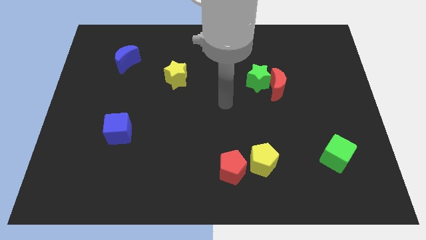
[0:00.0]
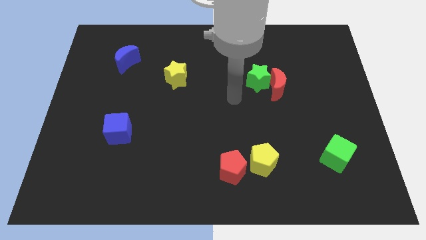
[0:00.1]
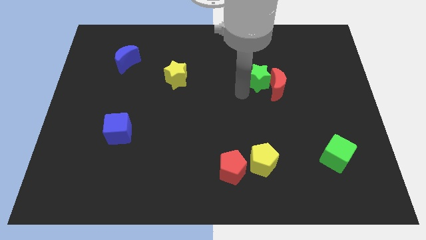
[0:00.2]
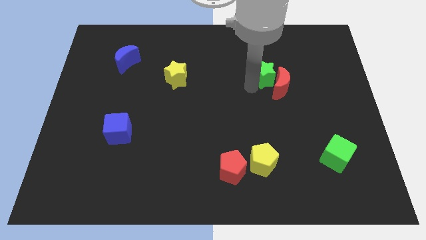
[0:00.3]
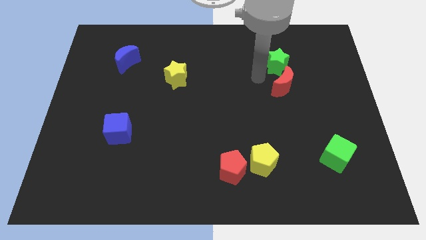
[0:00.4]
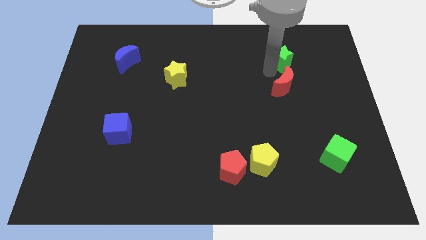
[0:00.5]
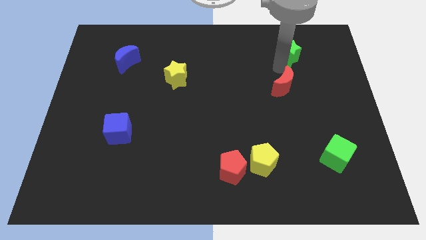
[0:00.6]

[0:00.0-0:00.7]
separate the red moon from the green star

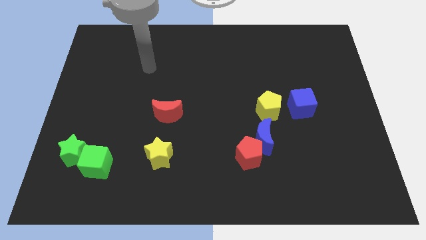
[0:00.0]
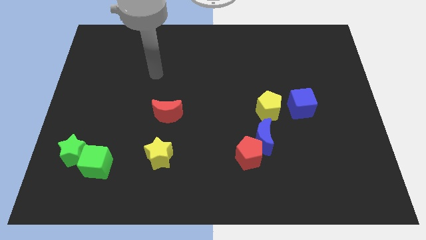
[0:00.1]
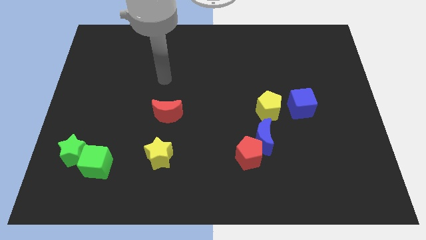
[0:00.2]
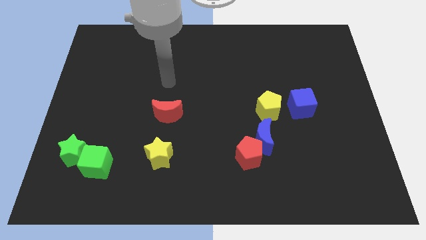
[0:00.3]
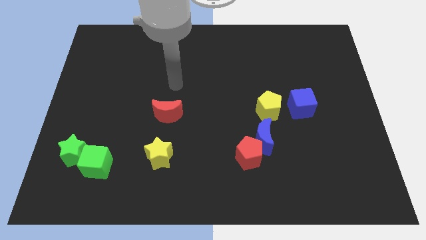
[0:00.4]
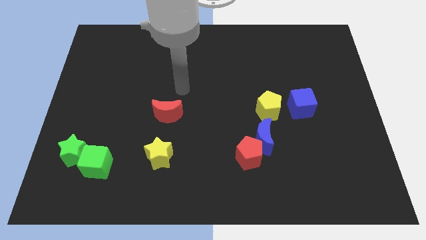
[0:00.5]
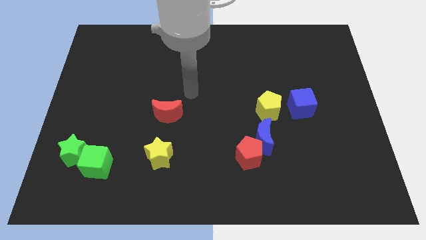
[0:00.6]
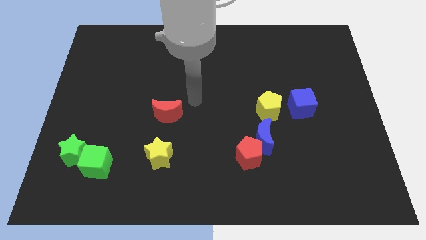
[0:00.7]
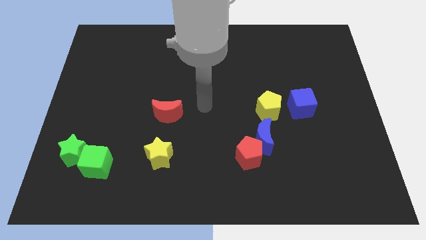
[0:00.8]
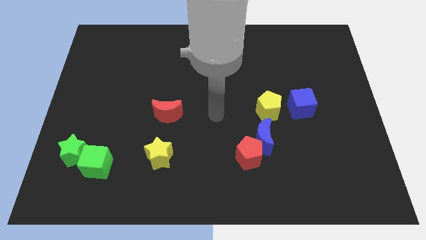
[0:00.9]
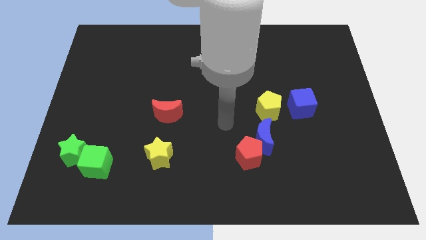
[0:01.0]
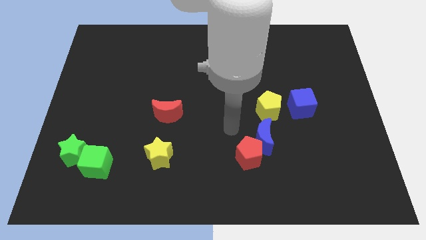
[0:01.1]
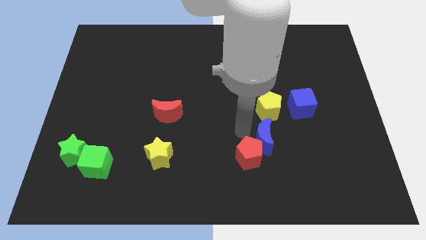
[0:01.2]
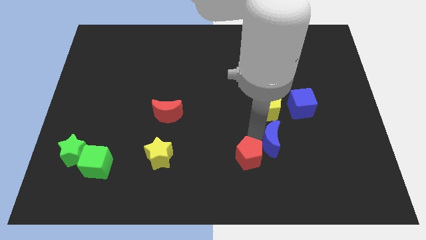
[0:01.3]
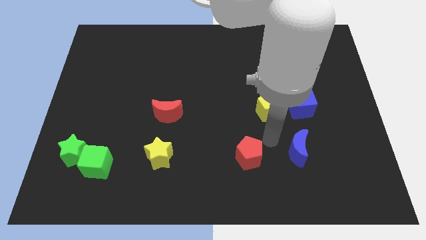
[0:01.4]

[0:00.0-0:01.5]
separate the red pentagon from the blue moon

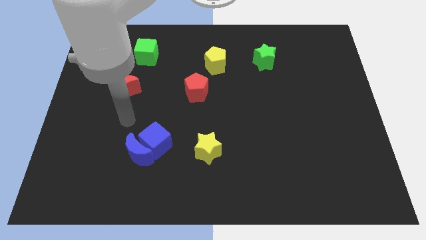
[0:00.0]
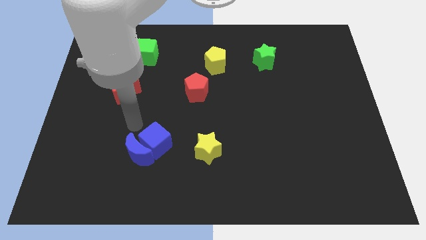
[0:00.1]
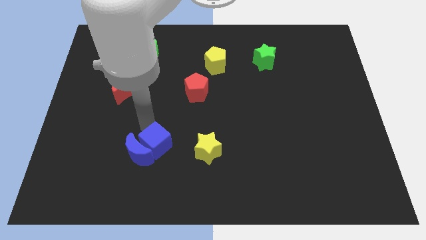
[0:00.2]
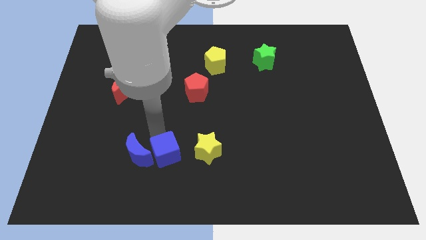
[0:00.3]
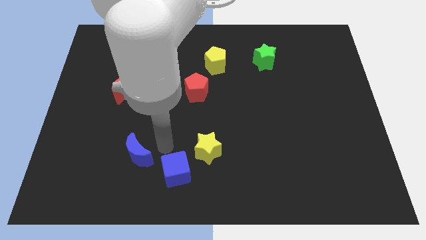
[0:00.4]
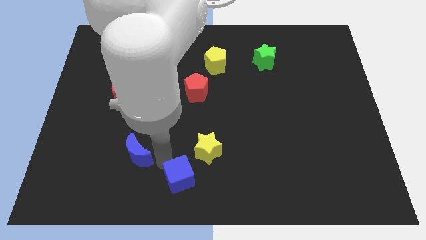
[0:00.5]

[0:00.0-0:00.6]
move the blue moon away from the blue cube

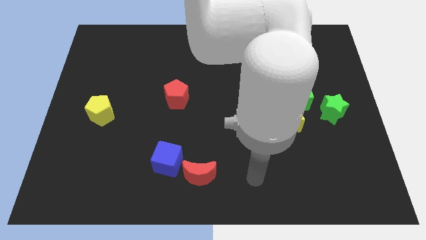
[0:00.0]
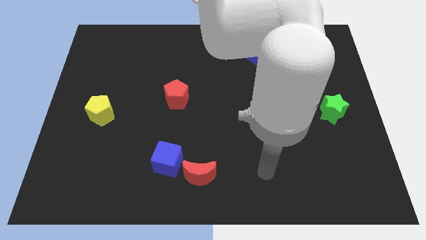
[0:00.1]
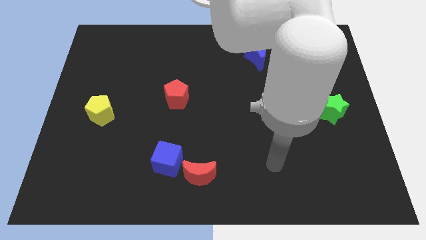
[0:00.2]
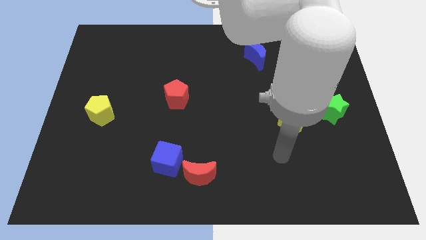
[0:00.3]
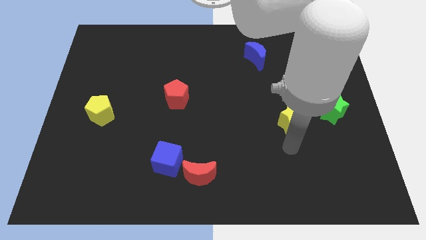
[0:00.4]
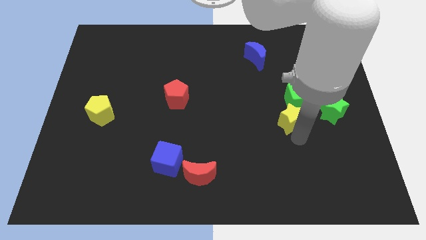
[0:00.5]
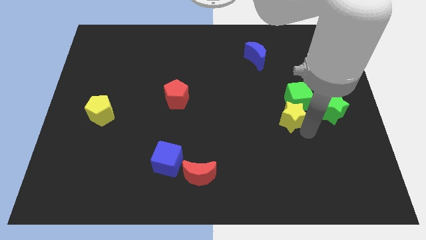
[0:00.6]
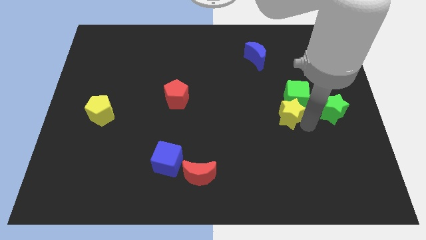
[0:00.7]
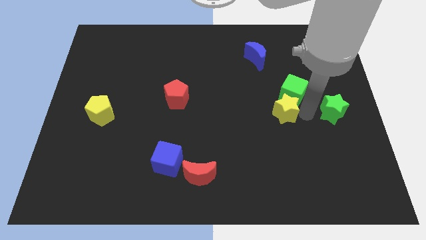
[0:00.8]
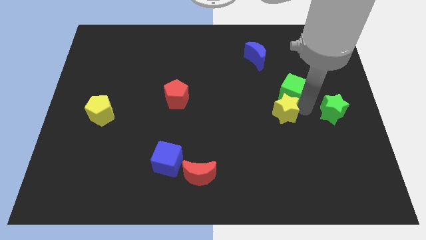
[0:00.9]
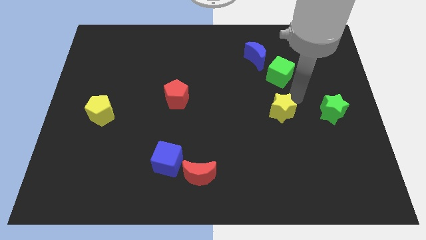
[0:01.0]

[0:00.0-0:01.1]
pull the yellow star apart from the green cube

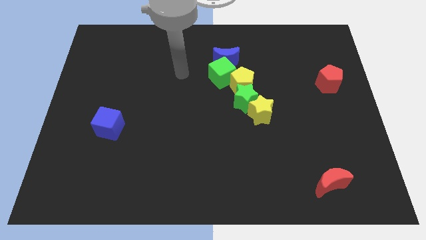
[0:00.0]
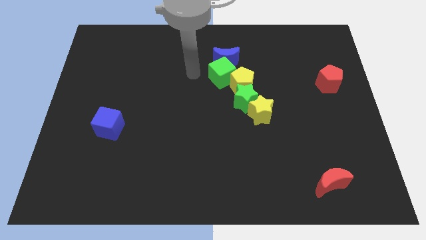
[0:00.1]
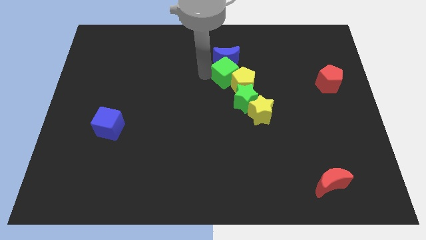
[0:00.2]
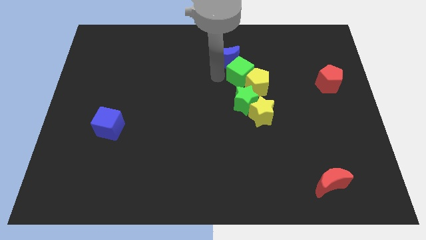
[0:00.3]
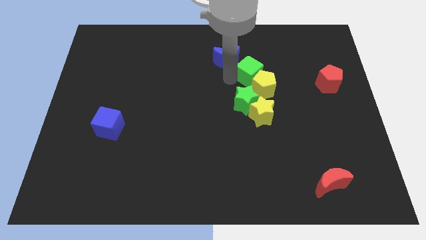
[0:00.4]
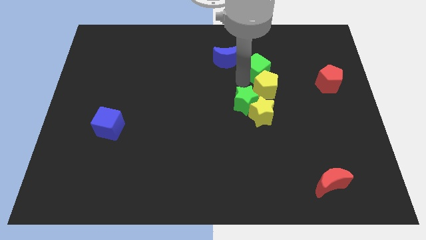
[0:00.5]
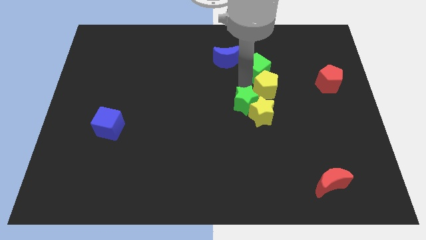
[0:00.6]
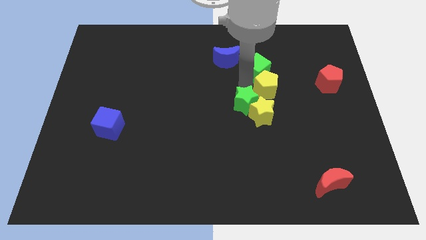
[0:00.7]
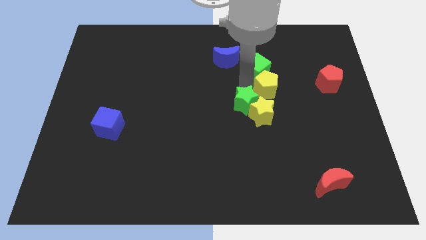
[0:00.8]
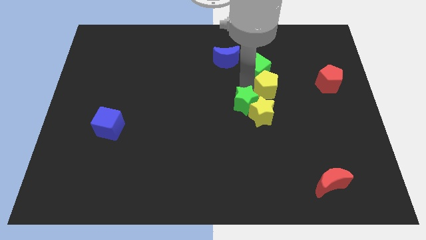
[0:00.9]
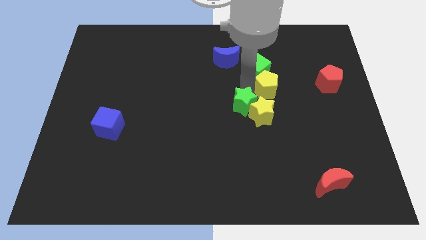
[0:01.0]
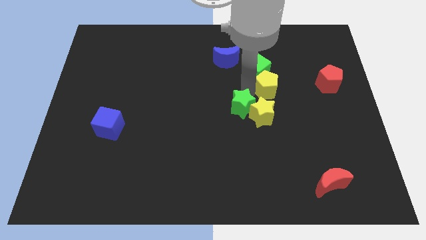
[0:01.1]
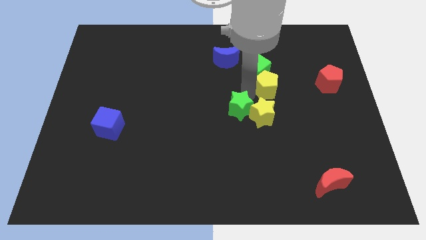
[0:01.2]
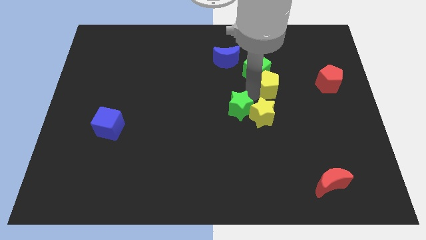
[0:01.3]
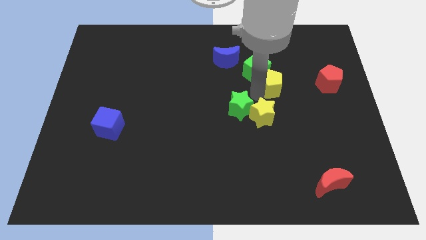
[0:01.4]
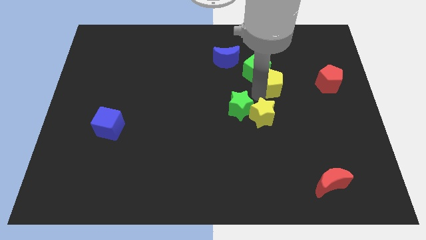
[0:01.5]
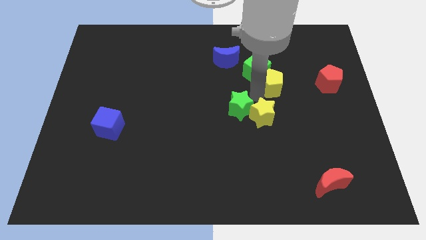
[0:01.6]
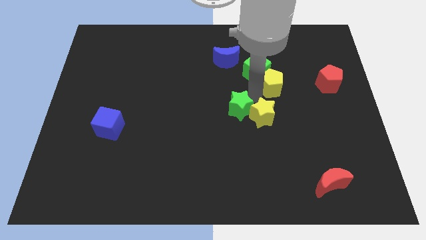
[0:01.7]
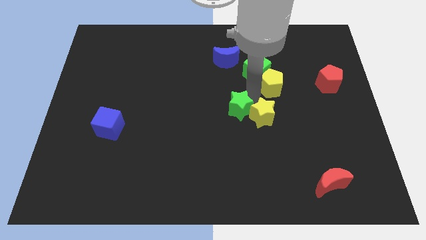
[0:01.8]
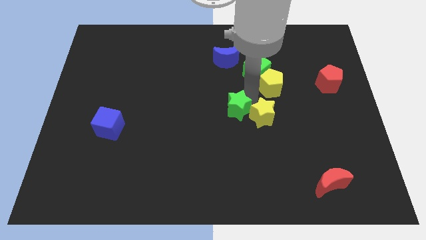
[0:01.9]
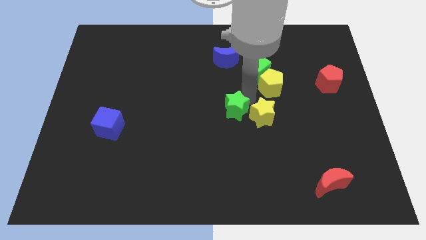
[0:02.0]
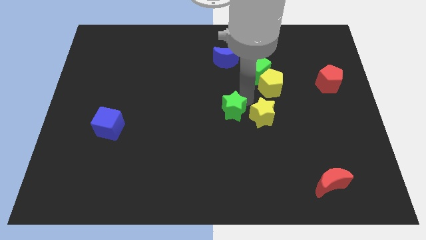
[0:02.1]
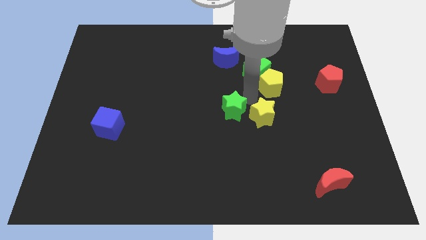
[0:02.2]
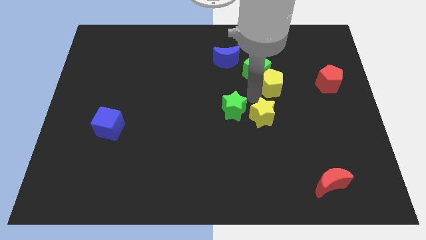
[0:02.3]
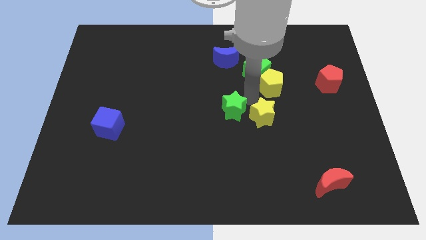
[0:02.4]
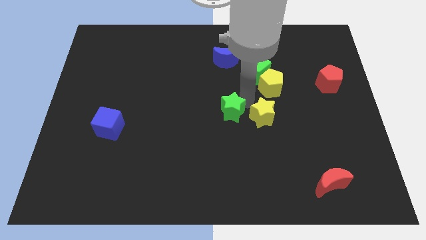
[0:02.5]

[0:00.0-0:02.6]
move the green star away from the clump

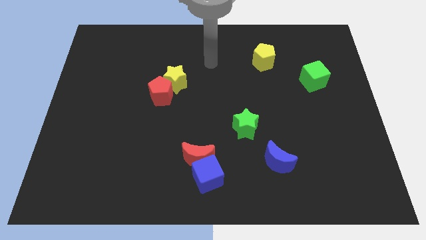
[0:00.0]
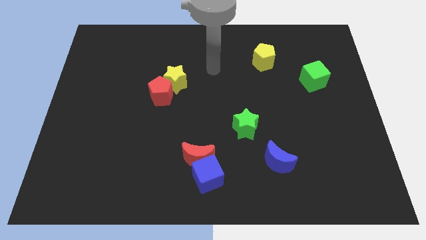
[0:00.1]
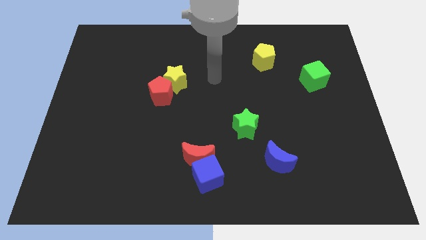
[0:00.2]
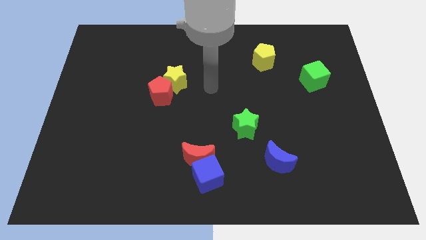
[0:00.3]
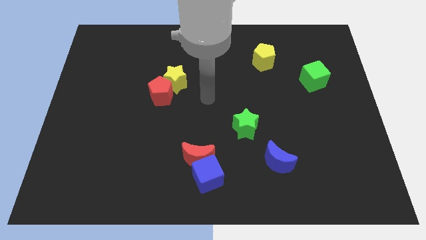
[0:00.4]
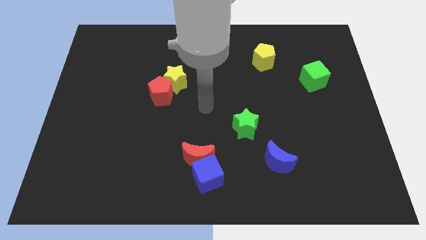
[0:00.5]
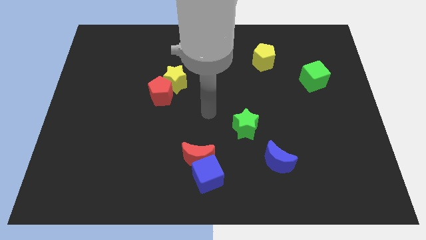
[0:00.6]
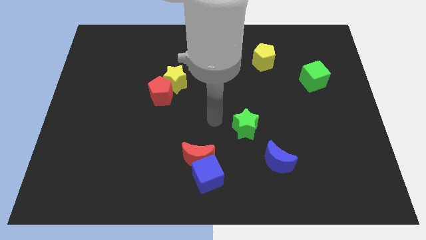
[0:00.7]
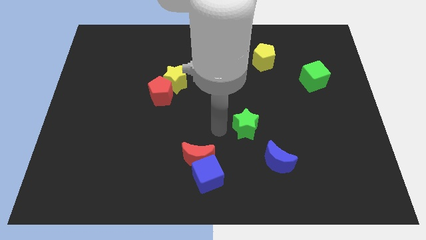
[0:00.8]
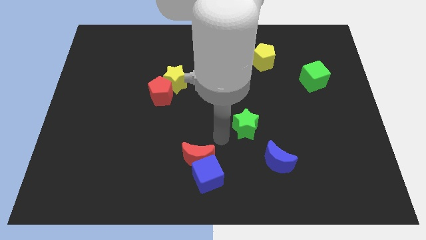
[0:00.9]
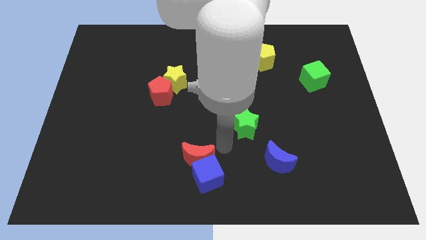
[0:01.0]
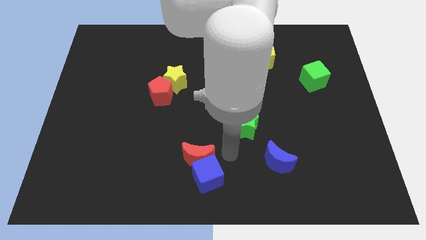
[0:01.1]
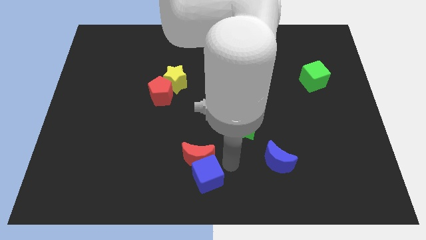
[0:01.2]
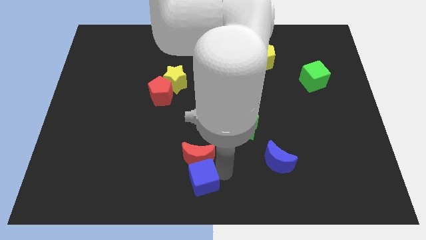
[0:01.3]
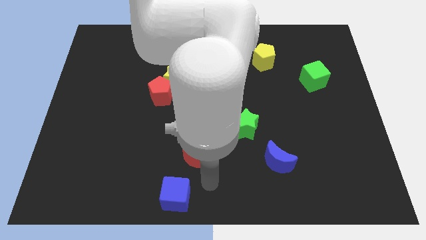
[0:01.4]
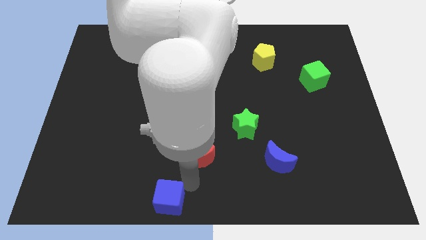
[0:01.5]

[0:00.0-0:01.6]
pull the red moon apart from the blue cube

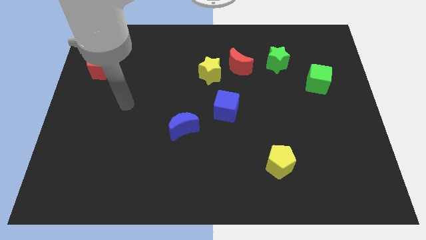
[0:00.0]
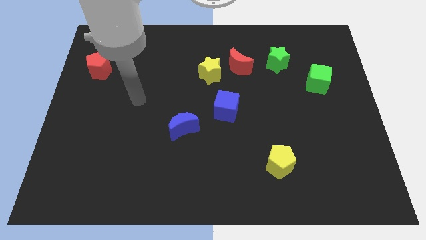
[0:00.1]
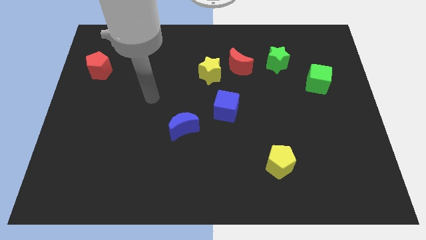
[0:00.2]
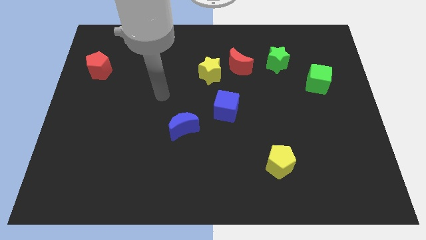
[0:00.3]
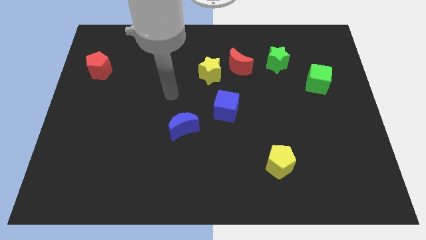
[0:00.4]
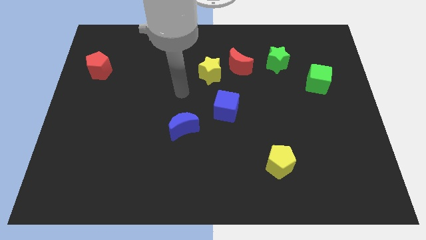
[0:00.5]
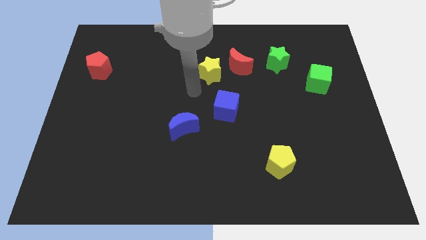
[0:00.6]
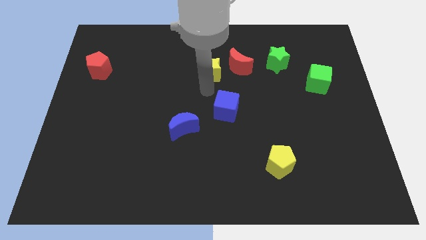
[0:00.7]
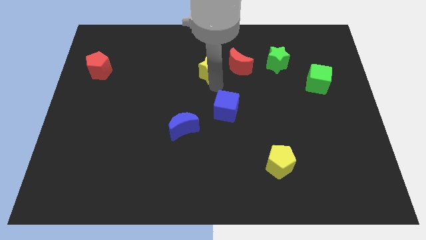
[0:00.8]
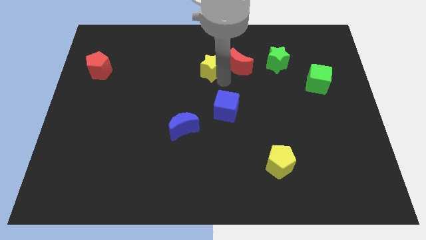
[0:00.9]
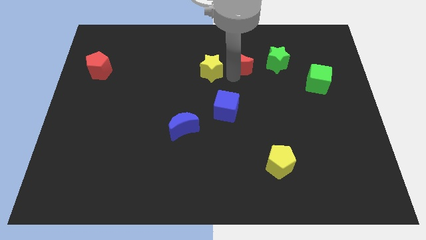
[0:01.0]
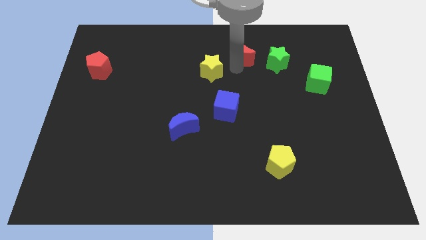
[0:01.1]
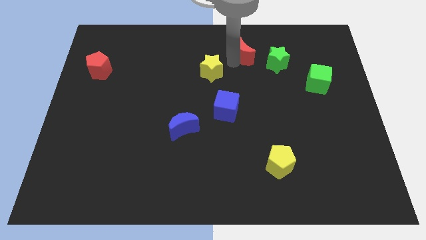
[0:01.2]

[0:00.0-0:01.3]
move the yellow star away from the red moon
